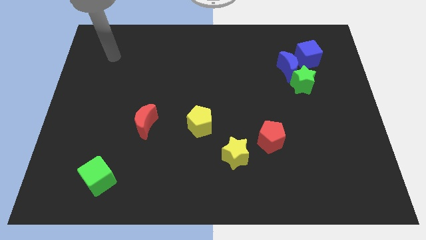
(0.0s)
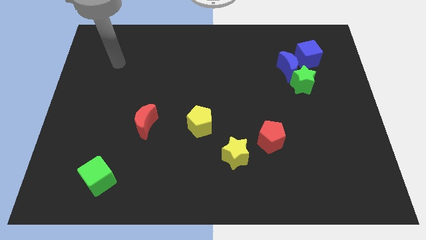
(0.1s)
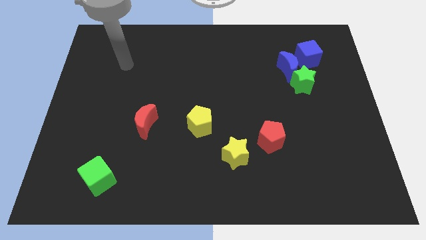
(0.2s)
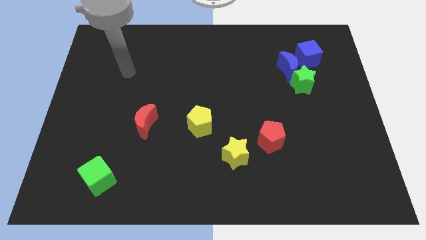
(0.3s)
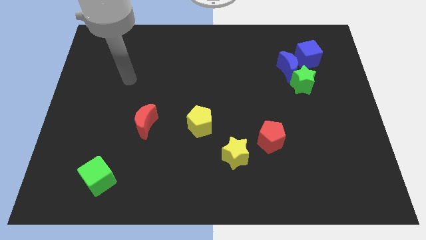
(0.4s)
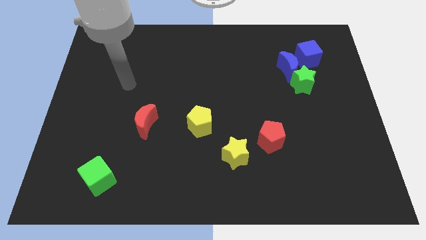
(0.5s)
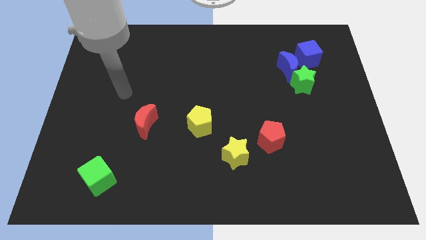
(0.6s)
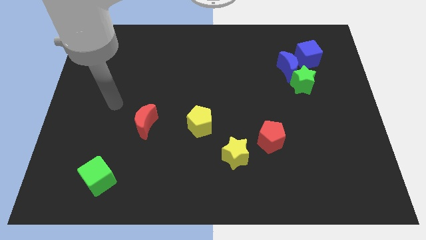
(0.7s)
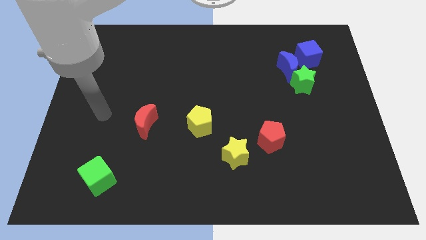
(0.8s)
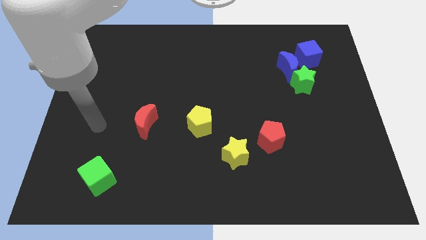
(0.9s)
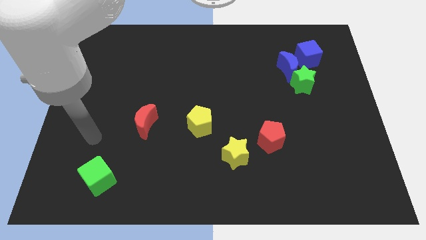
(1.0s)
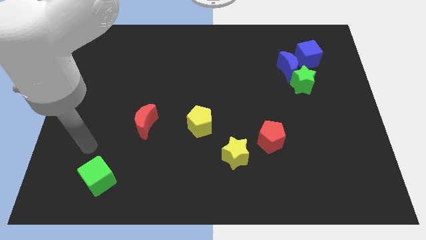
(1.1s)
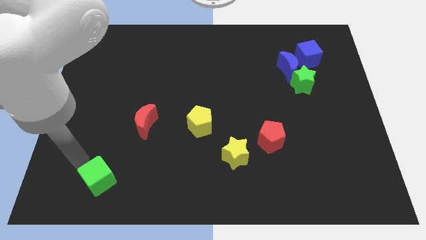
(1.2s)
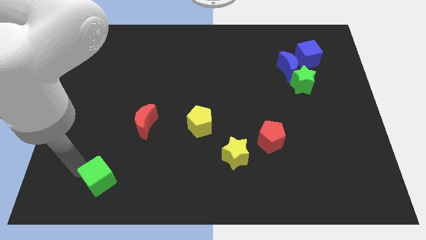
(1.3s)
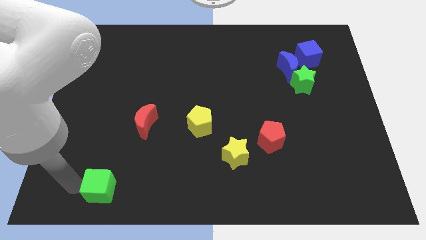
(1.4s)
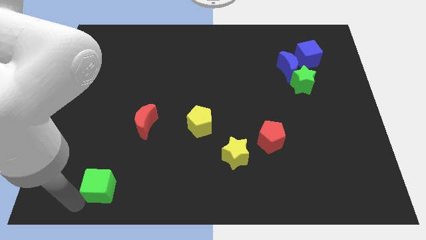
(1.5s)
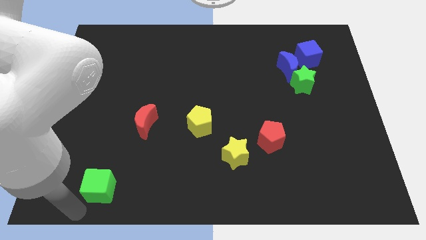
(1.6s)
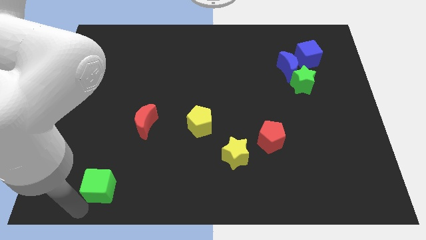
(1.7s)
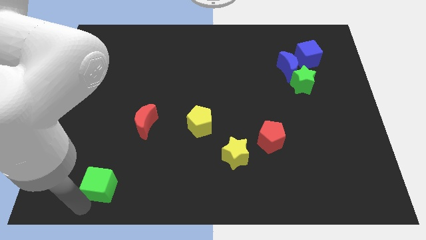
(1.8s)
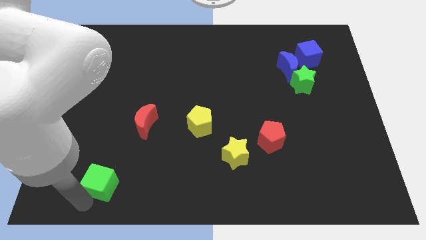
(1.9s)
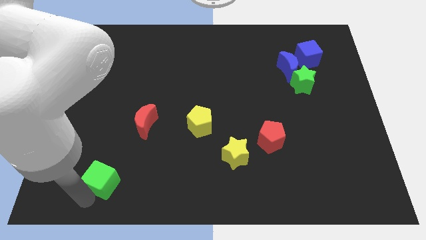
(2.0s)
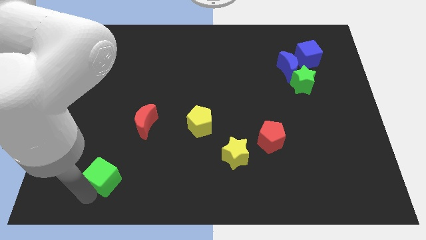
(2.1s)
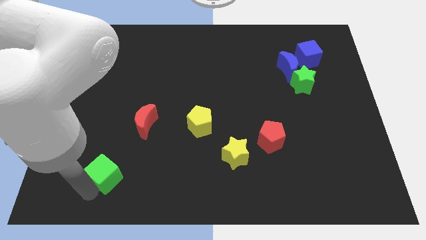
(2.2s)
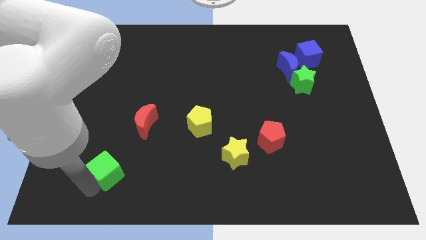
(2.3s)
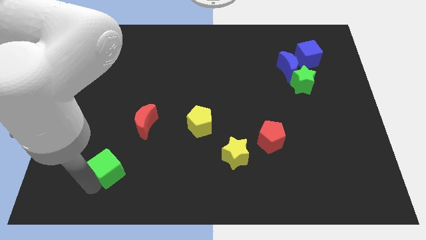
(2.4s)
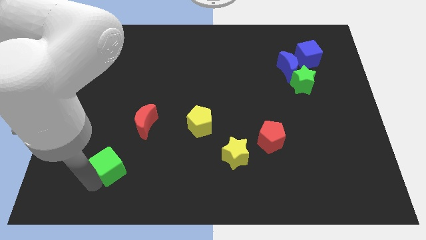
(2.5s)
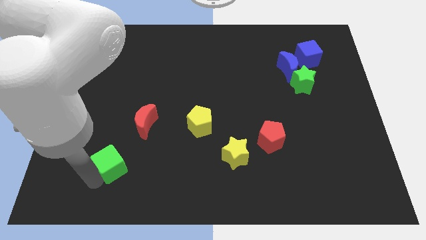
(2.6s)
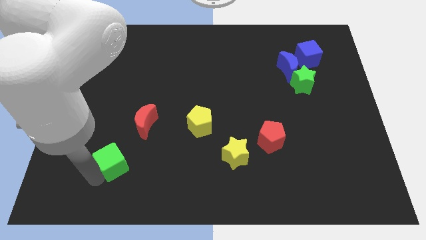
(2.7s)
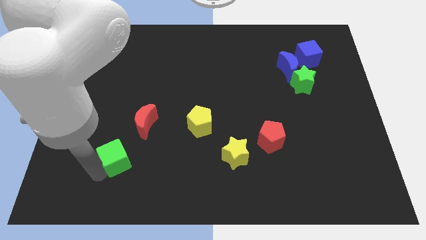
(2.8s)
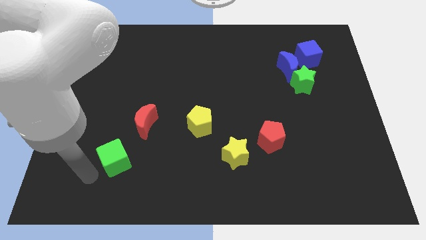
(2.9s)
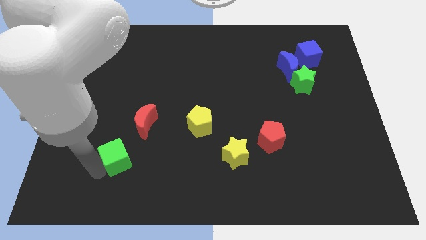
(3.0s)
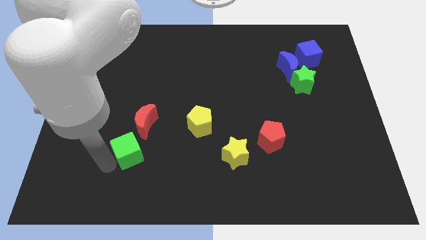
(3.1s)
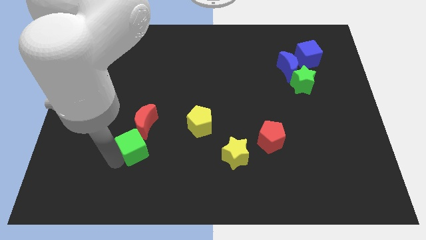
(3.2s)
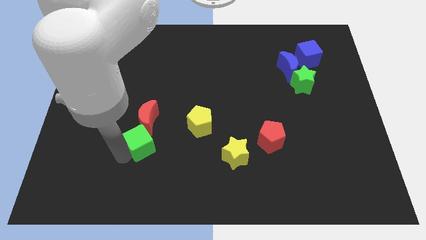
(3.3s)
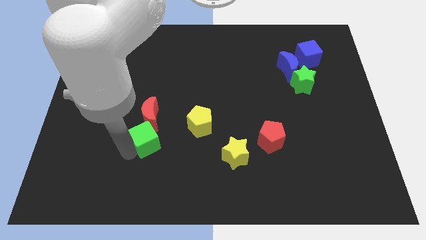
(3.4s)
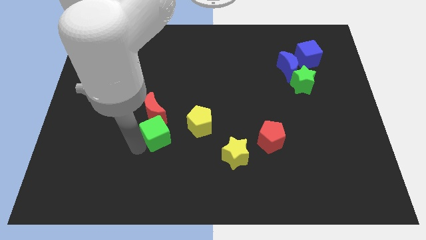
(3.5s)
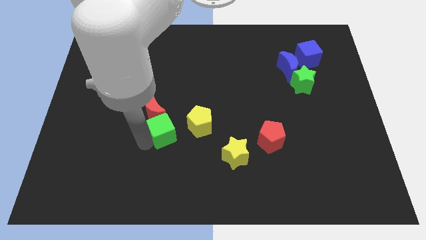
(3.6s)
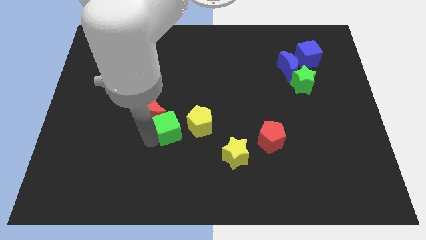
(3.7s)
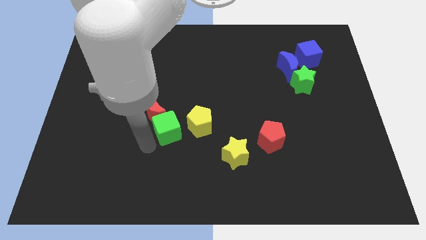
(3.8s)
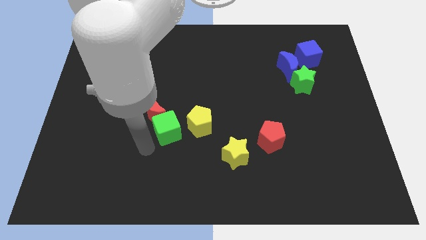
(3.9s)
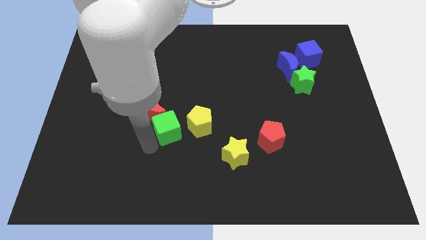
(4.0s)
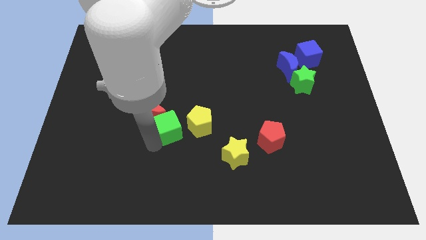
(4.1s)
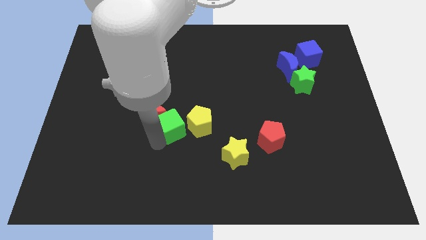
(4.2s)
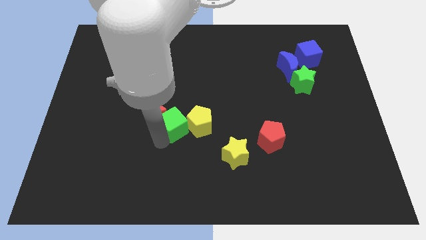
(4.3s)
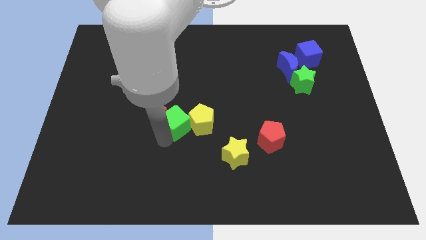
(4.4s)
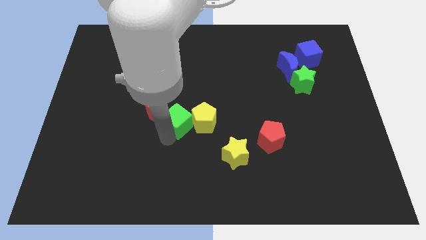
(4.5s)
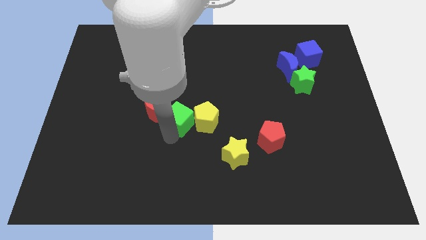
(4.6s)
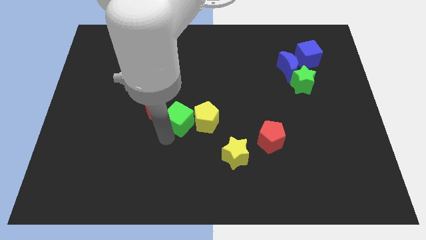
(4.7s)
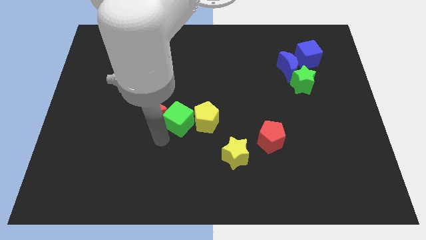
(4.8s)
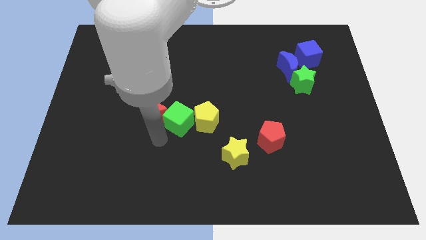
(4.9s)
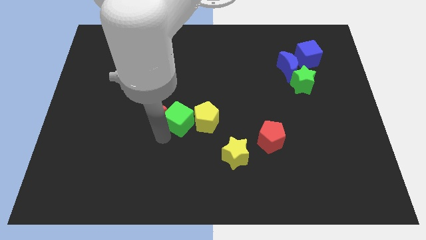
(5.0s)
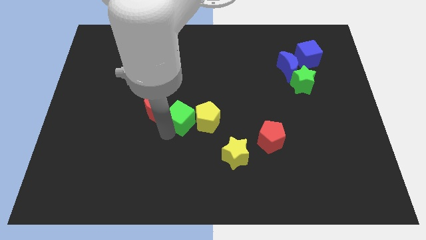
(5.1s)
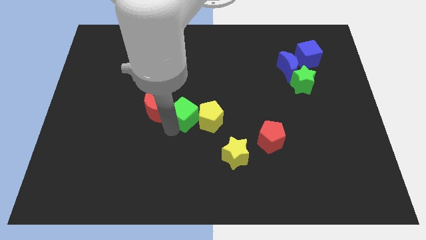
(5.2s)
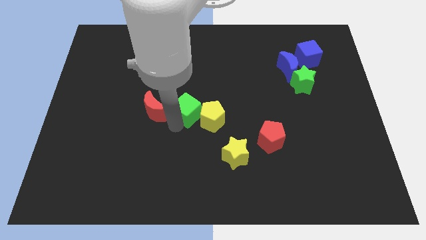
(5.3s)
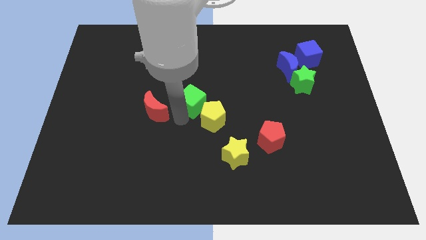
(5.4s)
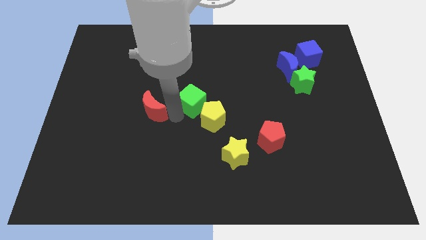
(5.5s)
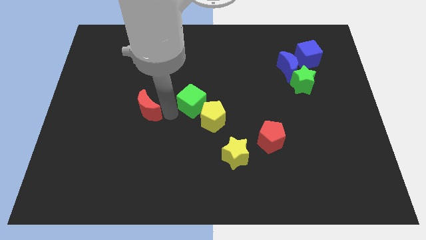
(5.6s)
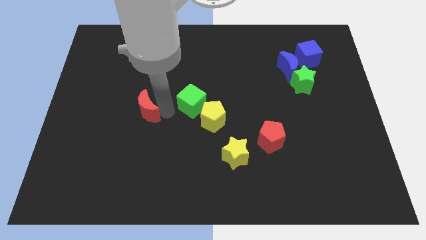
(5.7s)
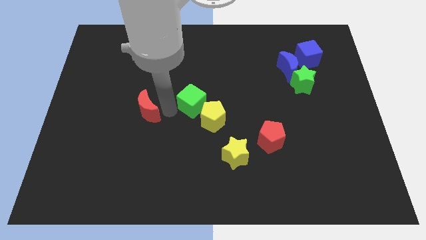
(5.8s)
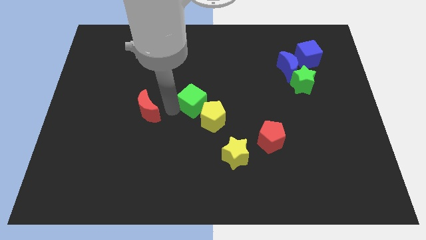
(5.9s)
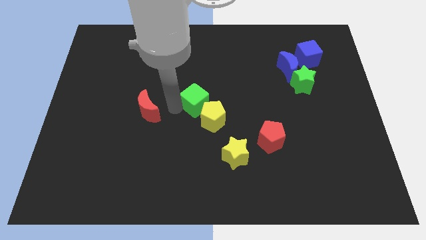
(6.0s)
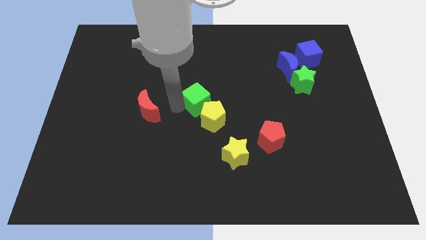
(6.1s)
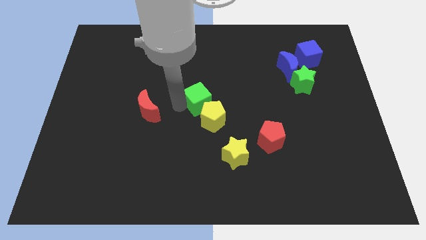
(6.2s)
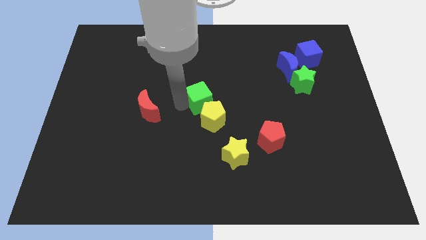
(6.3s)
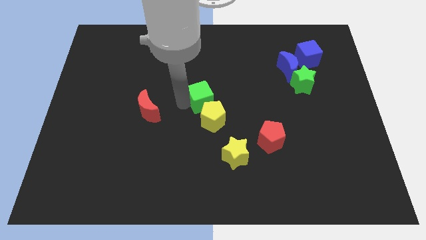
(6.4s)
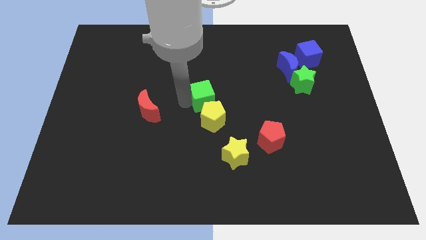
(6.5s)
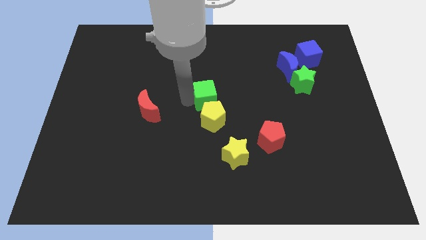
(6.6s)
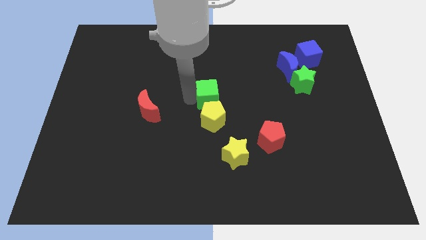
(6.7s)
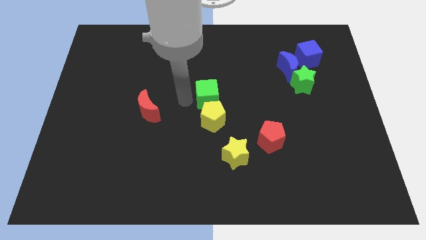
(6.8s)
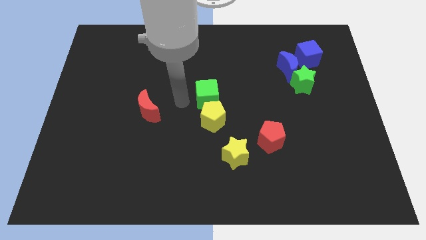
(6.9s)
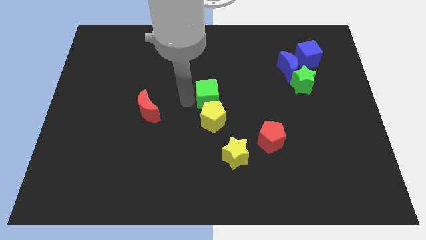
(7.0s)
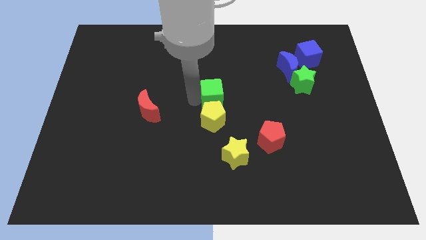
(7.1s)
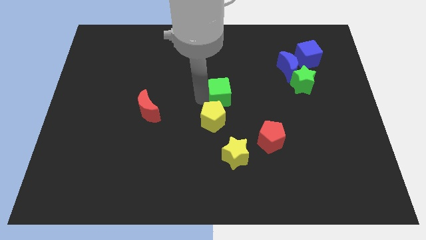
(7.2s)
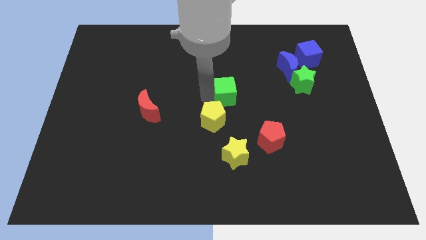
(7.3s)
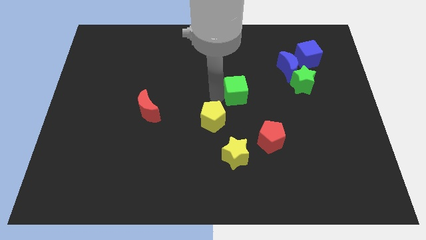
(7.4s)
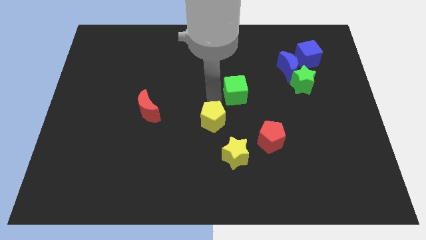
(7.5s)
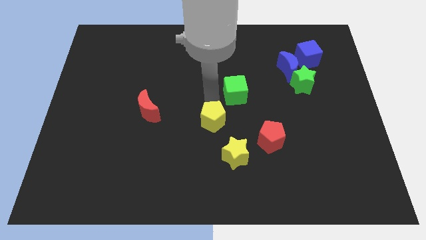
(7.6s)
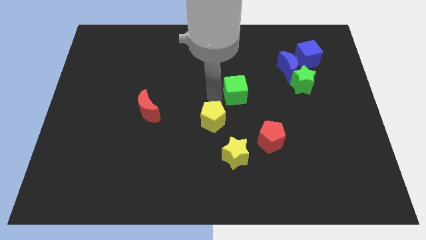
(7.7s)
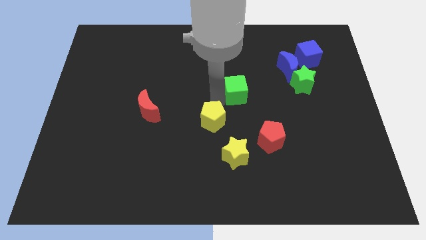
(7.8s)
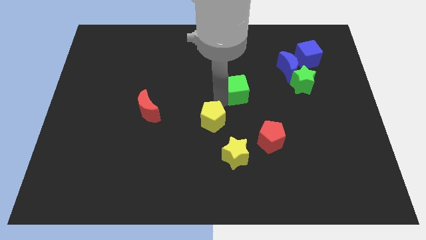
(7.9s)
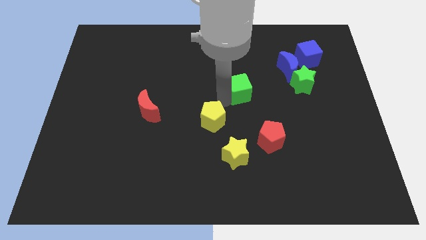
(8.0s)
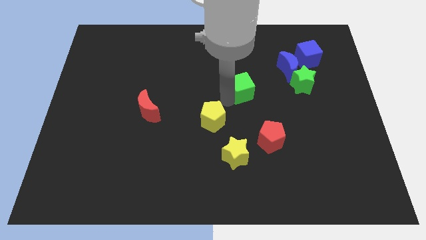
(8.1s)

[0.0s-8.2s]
slide the green cube left of the green star
